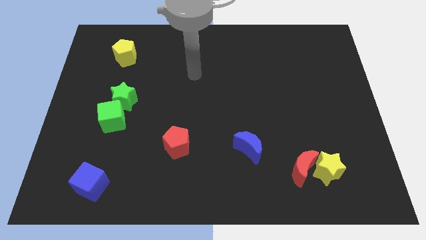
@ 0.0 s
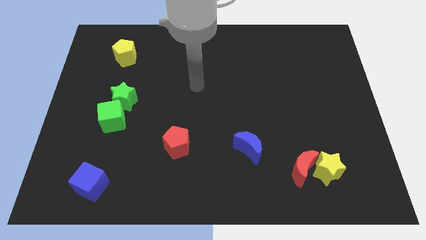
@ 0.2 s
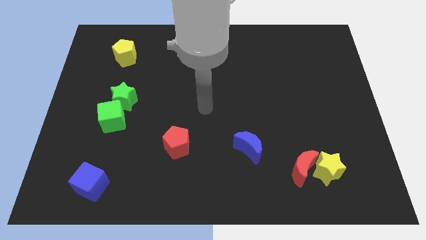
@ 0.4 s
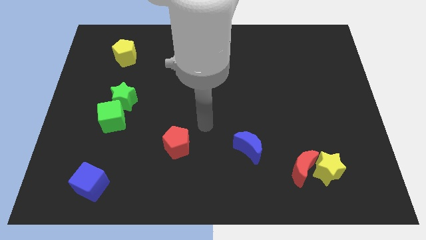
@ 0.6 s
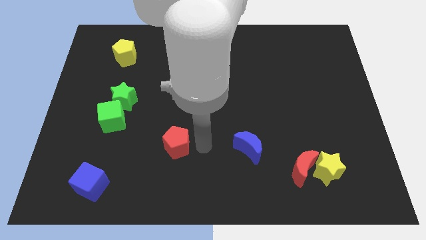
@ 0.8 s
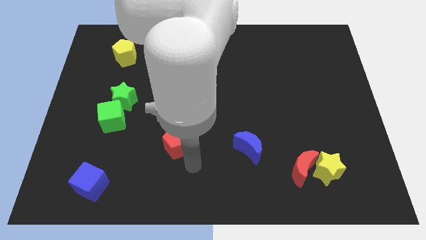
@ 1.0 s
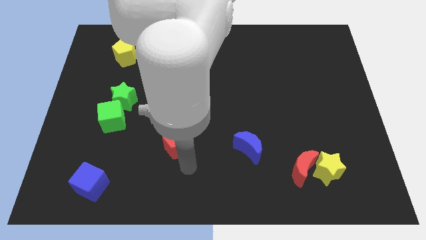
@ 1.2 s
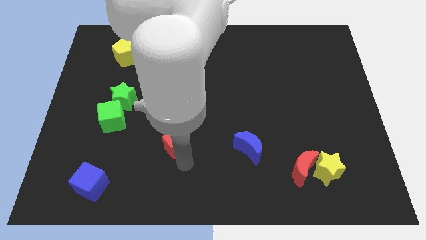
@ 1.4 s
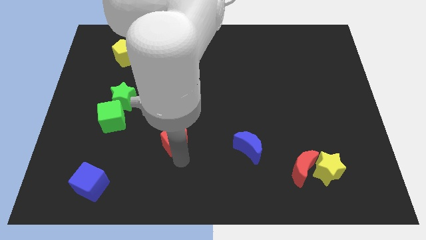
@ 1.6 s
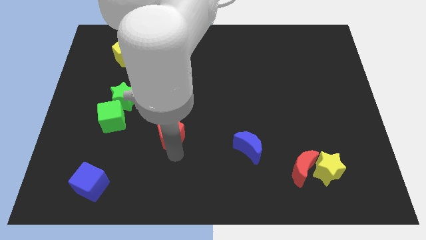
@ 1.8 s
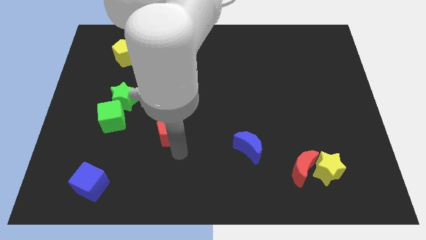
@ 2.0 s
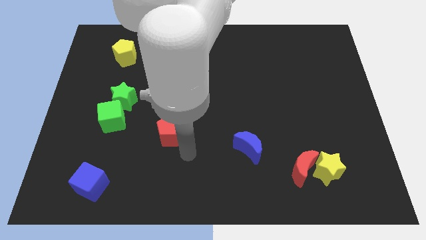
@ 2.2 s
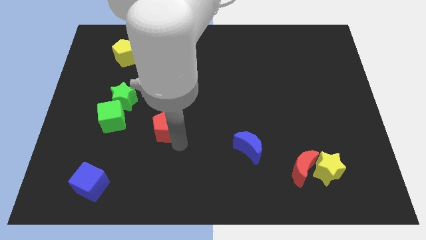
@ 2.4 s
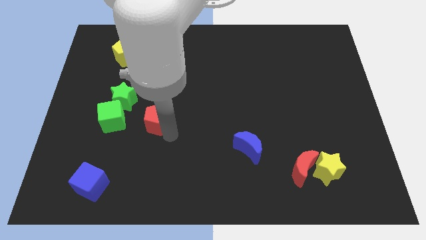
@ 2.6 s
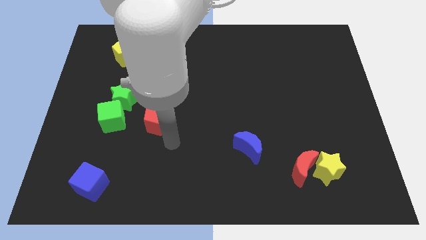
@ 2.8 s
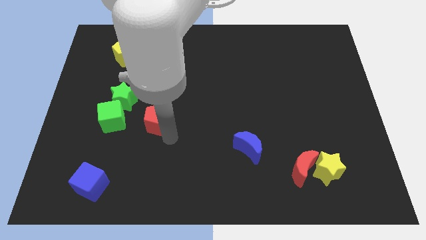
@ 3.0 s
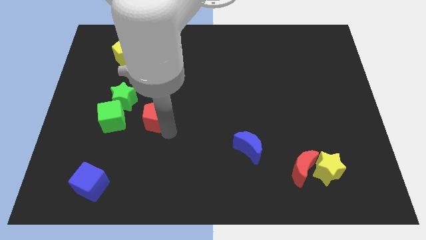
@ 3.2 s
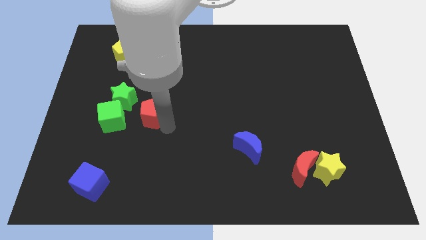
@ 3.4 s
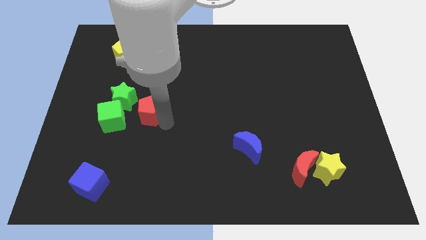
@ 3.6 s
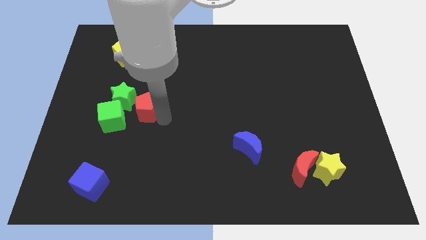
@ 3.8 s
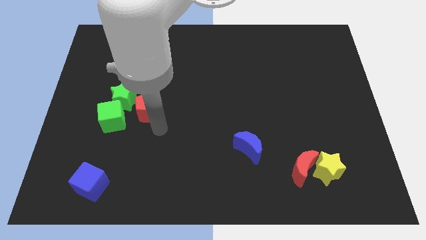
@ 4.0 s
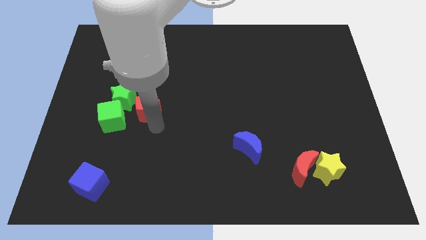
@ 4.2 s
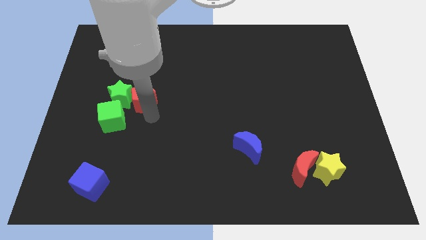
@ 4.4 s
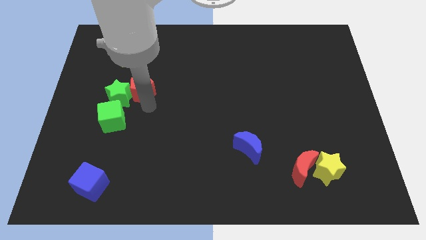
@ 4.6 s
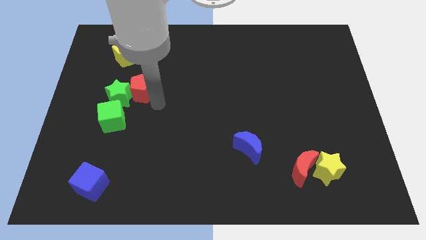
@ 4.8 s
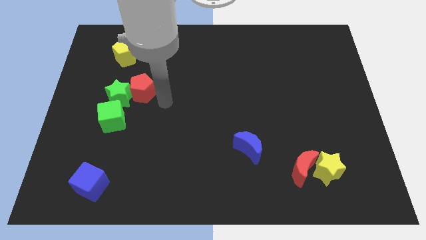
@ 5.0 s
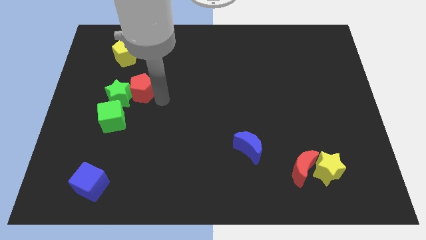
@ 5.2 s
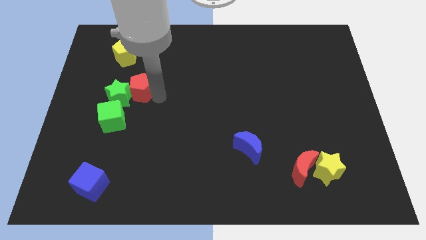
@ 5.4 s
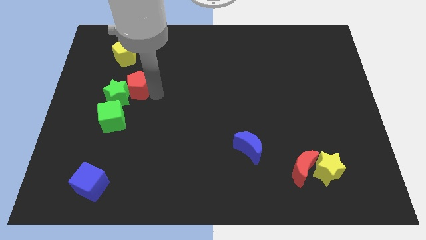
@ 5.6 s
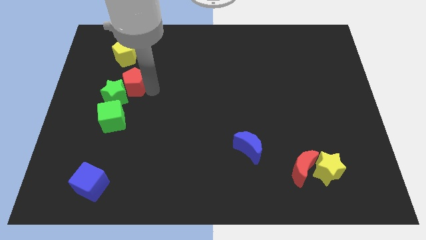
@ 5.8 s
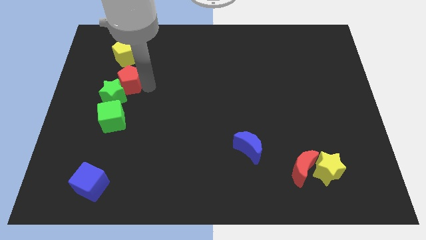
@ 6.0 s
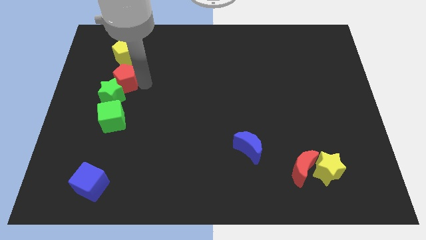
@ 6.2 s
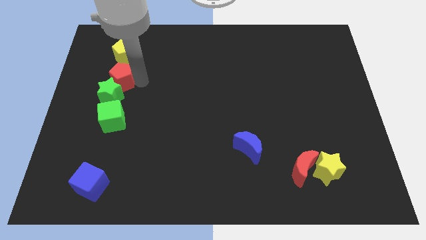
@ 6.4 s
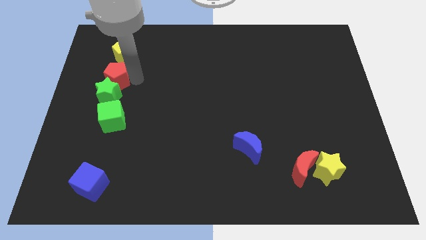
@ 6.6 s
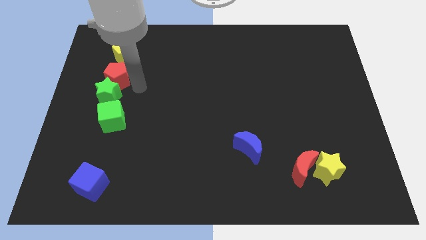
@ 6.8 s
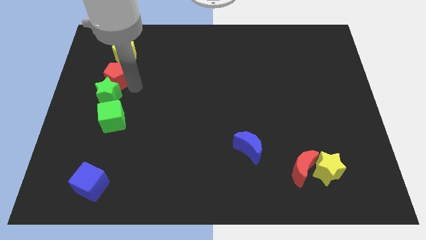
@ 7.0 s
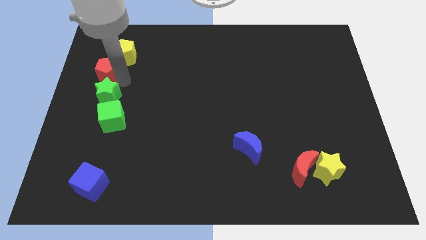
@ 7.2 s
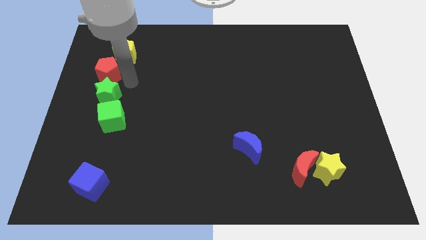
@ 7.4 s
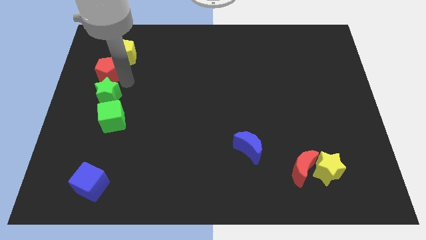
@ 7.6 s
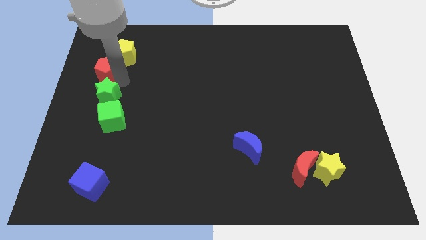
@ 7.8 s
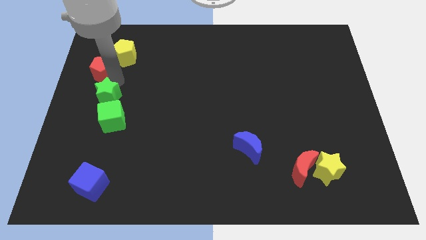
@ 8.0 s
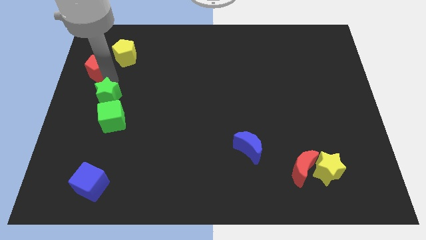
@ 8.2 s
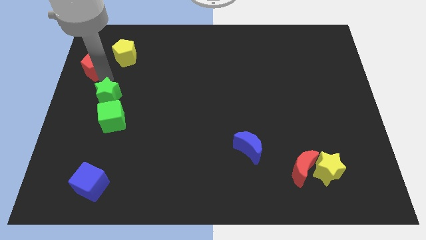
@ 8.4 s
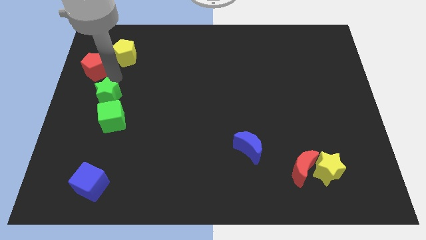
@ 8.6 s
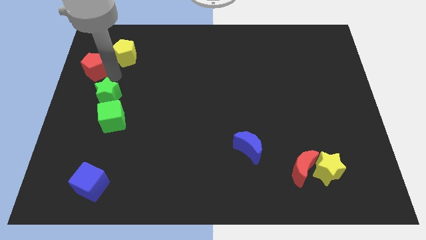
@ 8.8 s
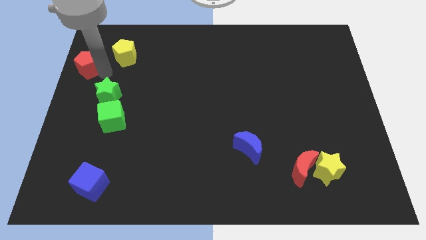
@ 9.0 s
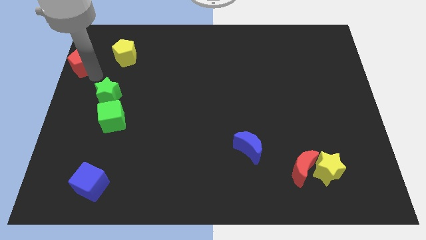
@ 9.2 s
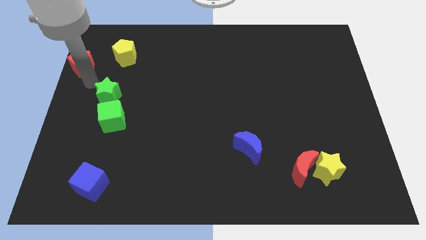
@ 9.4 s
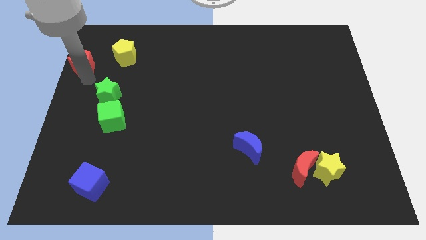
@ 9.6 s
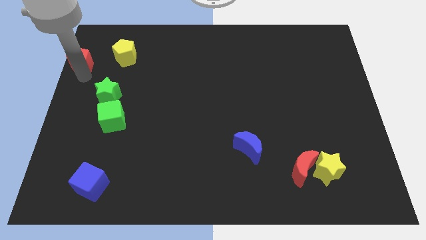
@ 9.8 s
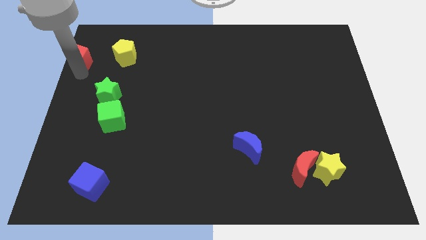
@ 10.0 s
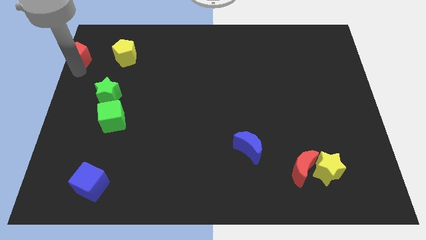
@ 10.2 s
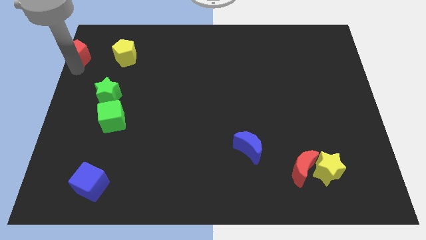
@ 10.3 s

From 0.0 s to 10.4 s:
push the red pentagon to the upper left corner

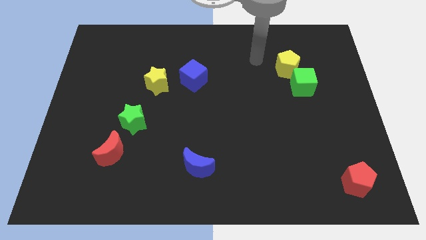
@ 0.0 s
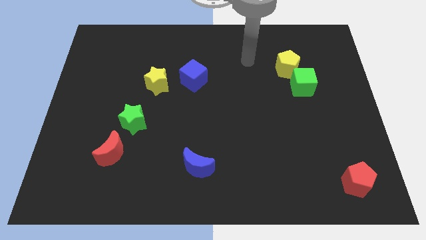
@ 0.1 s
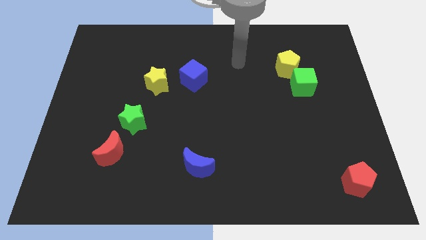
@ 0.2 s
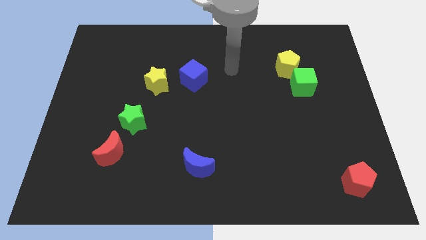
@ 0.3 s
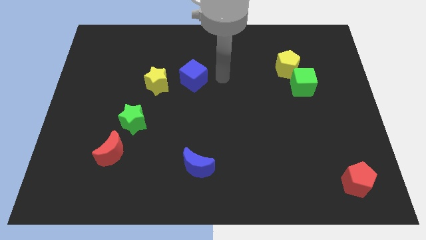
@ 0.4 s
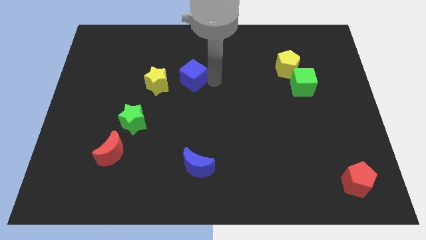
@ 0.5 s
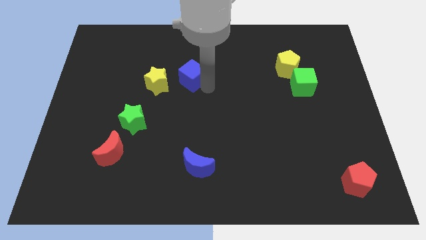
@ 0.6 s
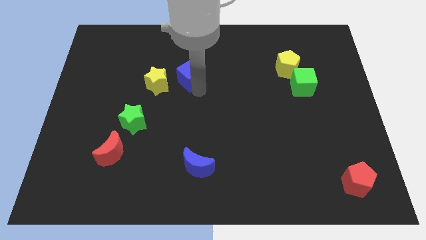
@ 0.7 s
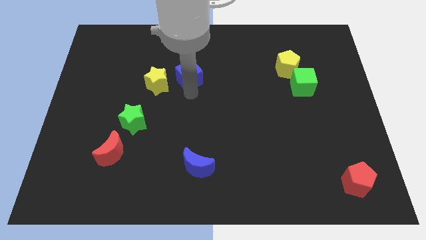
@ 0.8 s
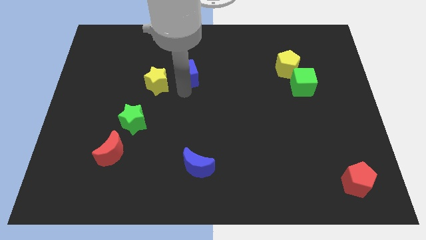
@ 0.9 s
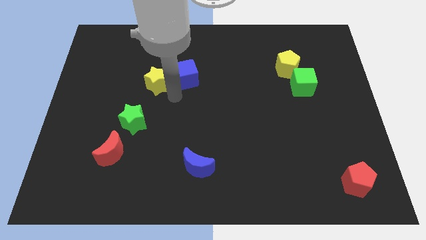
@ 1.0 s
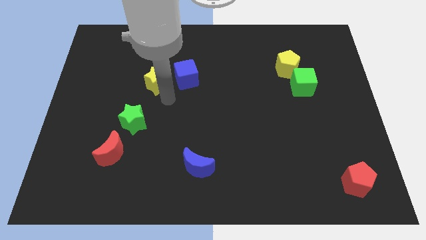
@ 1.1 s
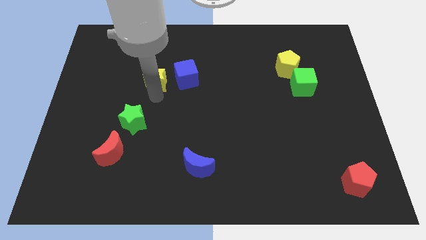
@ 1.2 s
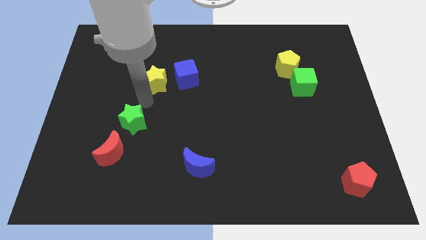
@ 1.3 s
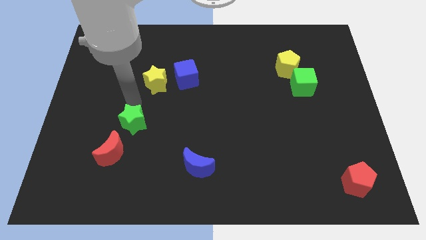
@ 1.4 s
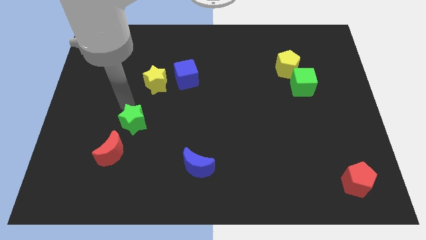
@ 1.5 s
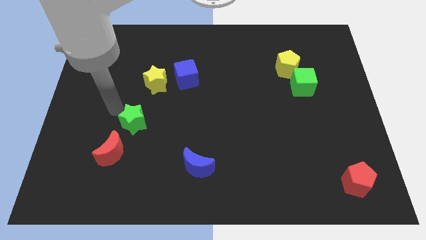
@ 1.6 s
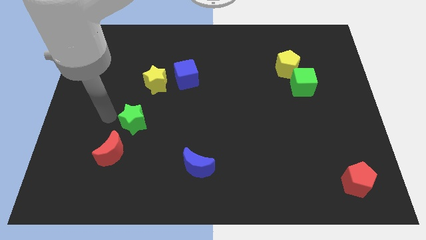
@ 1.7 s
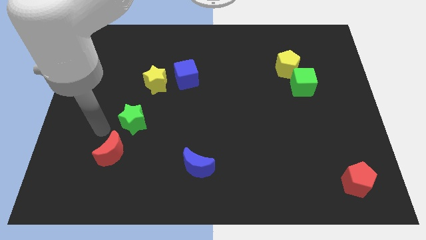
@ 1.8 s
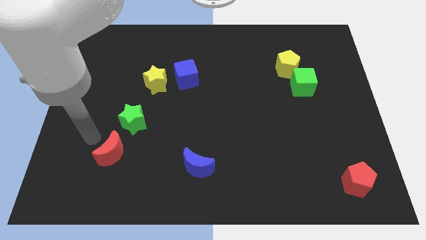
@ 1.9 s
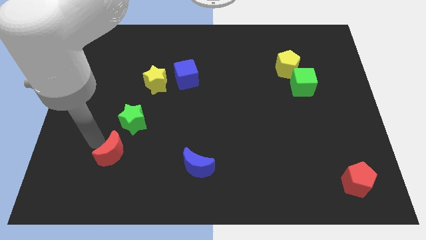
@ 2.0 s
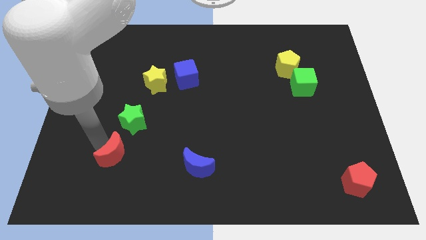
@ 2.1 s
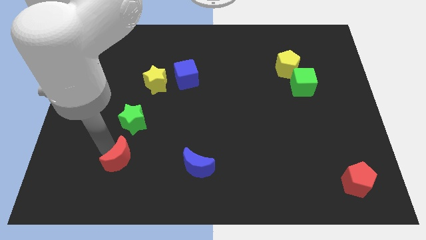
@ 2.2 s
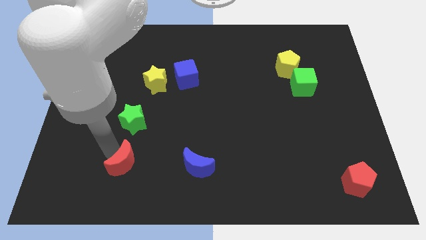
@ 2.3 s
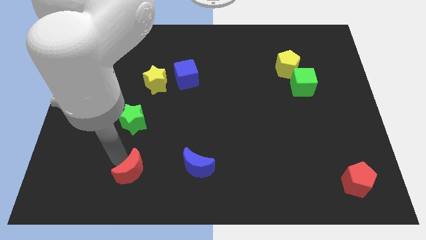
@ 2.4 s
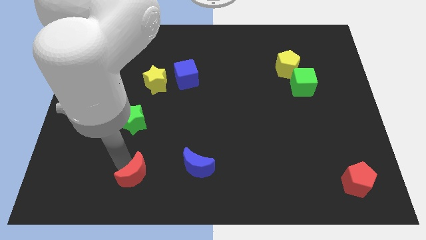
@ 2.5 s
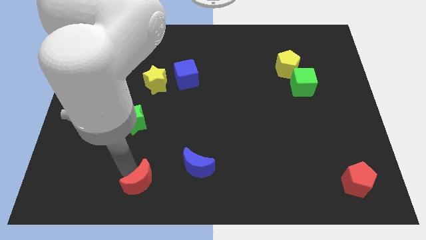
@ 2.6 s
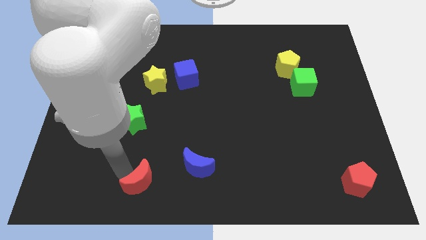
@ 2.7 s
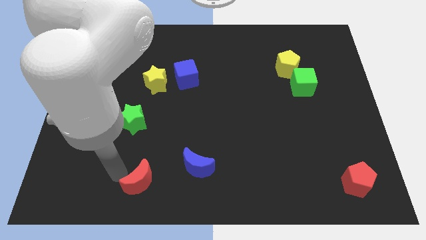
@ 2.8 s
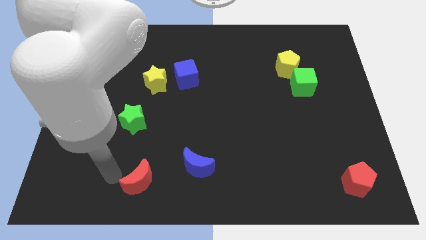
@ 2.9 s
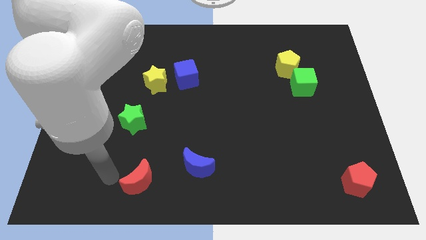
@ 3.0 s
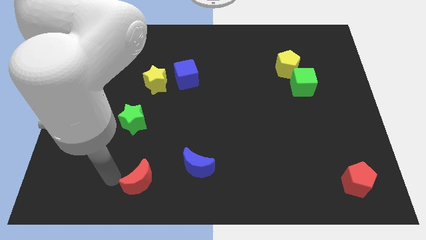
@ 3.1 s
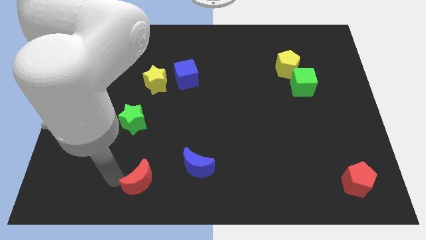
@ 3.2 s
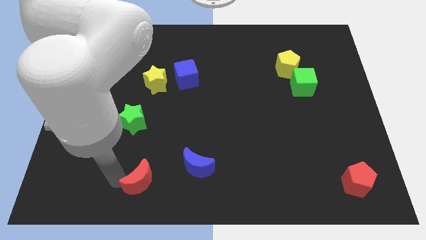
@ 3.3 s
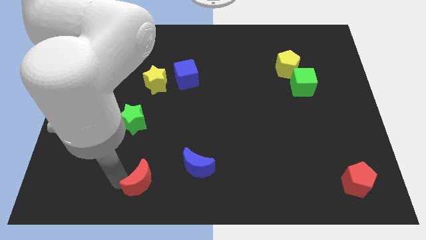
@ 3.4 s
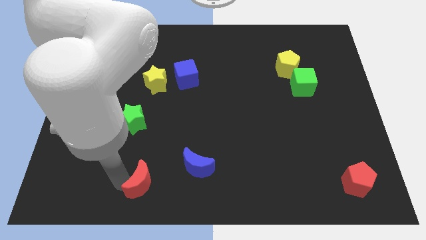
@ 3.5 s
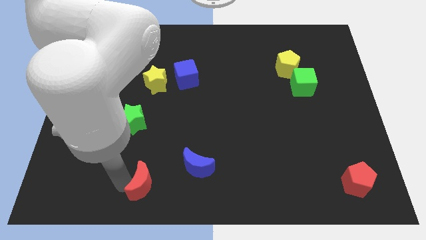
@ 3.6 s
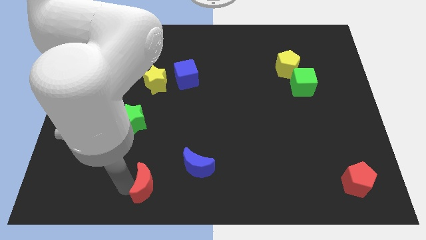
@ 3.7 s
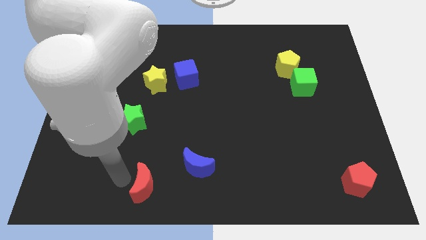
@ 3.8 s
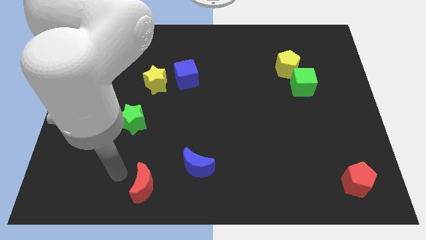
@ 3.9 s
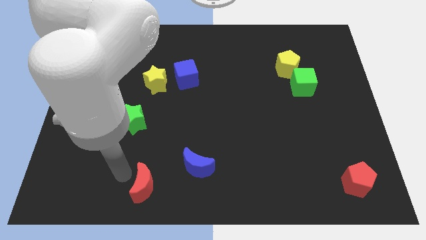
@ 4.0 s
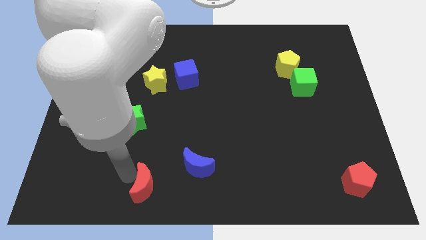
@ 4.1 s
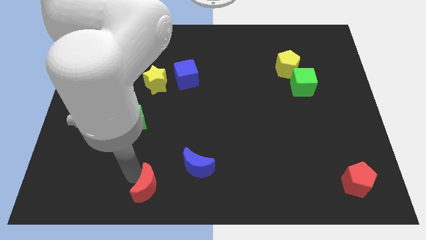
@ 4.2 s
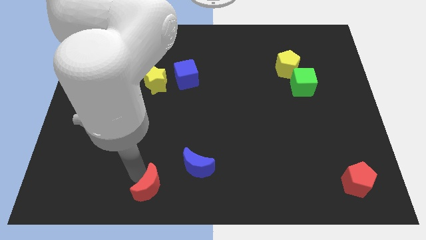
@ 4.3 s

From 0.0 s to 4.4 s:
push the red moon to the bottom
